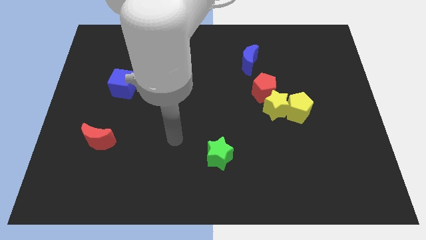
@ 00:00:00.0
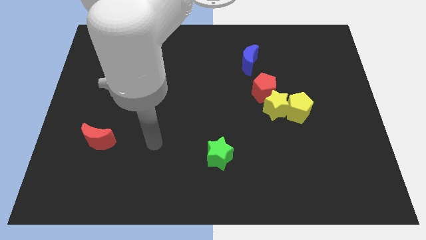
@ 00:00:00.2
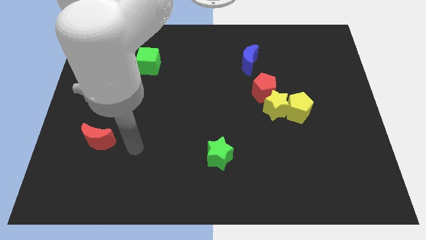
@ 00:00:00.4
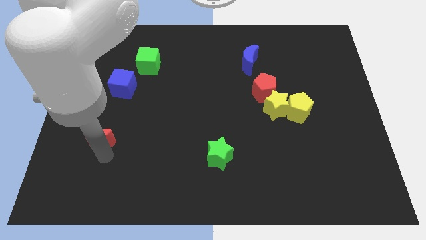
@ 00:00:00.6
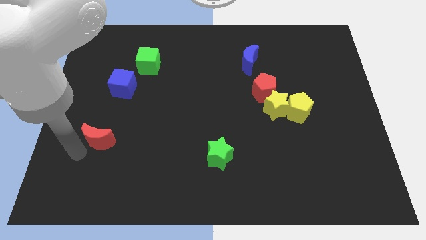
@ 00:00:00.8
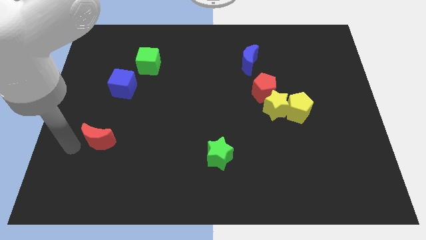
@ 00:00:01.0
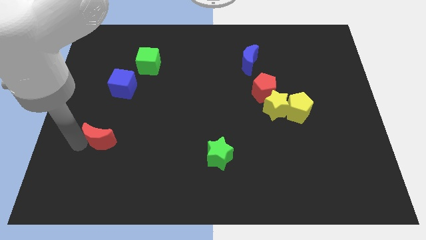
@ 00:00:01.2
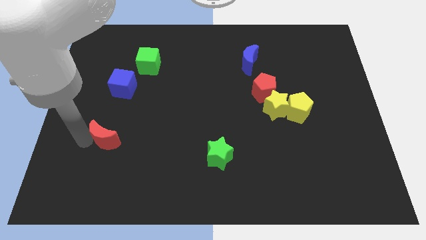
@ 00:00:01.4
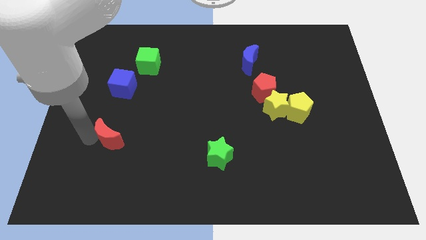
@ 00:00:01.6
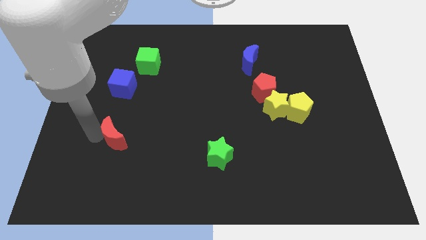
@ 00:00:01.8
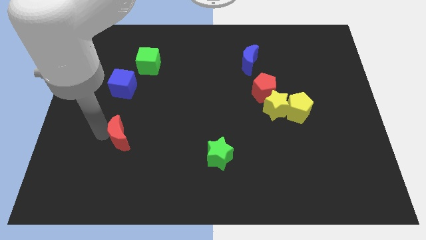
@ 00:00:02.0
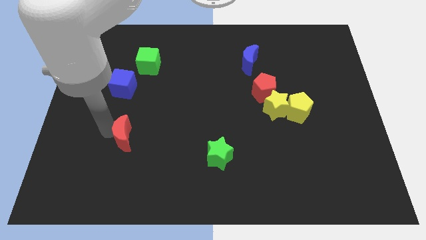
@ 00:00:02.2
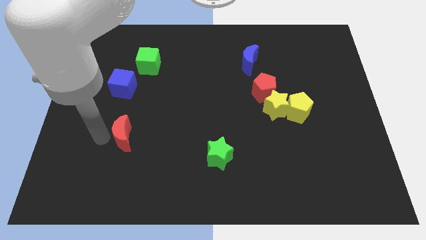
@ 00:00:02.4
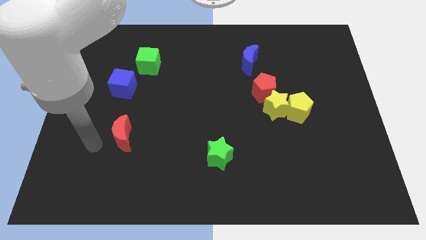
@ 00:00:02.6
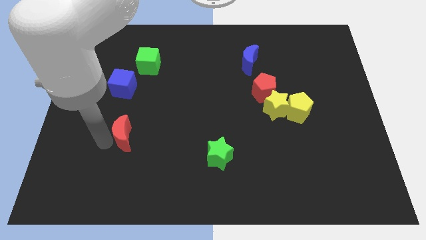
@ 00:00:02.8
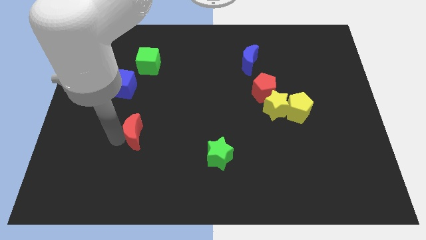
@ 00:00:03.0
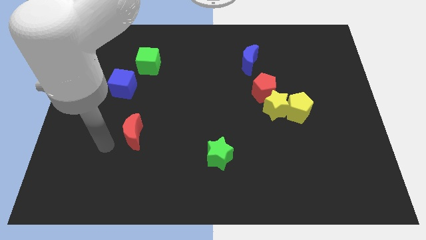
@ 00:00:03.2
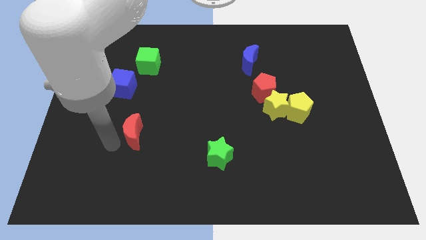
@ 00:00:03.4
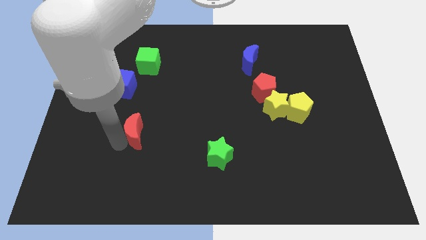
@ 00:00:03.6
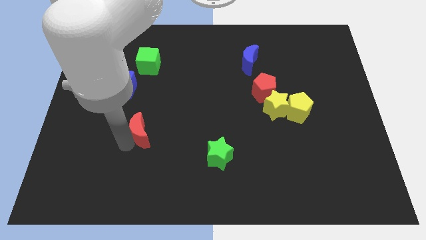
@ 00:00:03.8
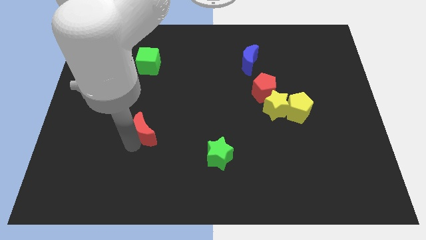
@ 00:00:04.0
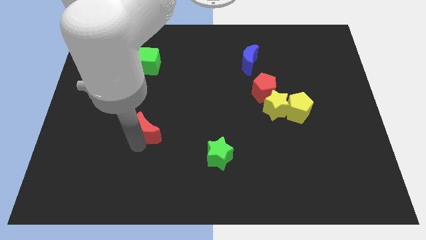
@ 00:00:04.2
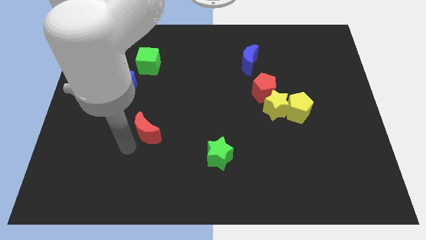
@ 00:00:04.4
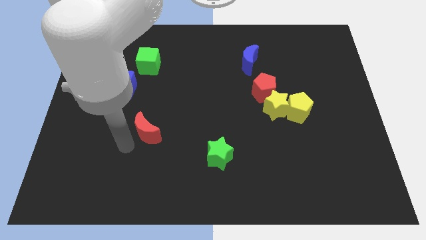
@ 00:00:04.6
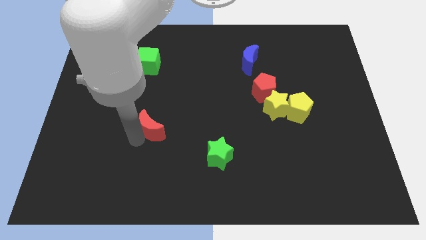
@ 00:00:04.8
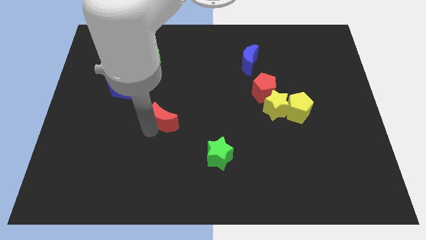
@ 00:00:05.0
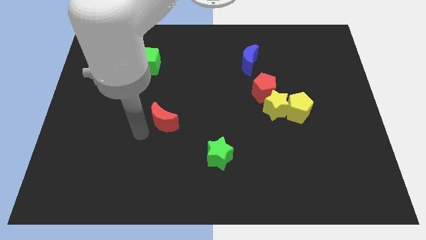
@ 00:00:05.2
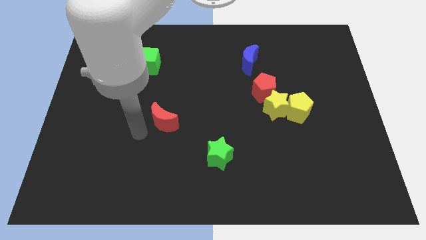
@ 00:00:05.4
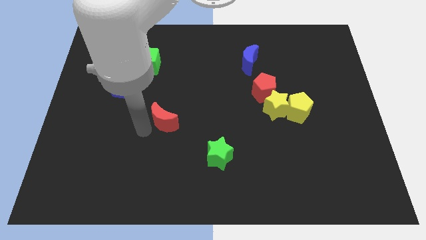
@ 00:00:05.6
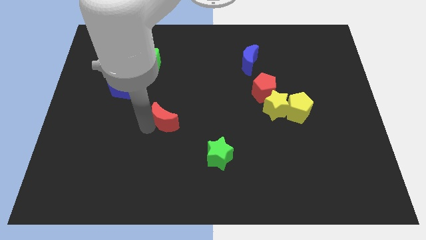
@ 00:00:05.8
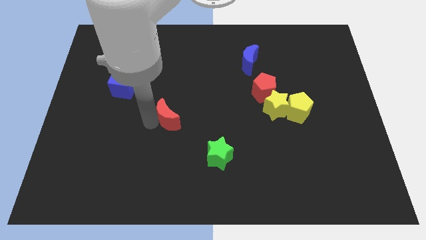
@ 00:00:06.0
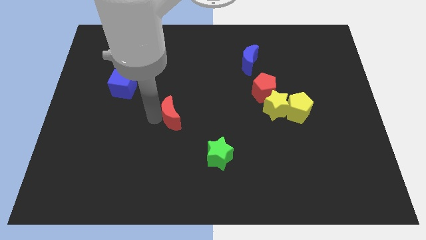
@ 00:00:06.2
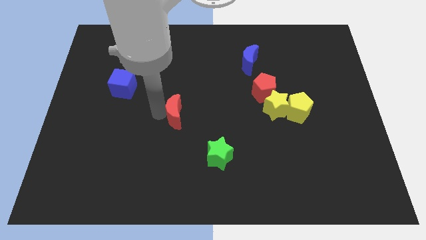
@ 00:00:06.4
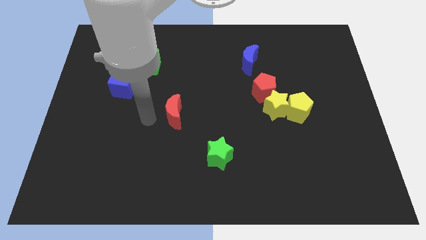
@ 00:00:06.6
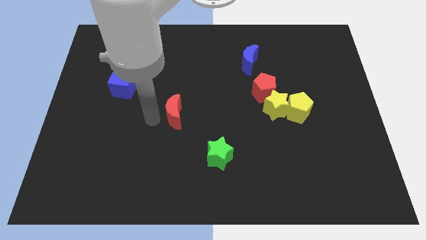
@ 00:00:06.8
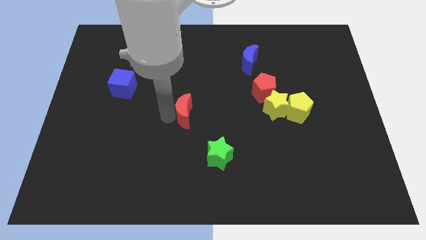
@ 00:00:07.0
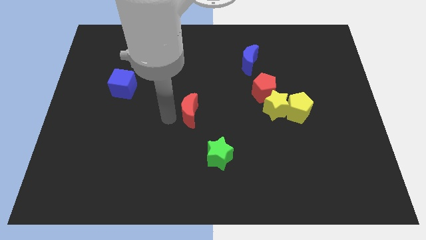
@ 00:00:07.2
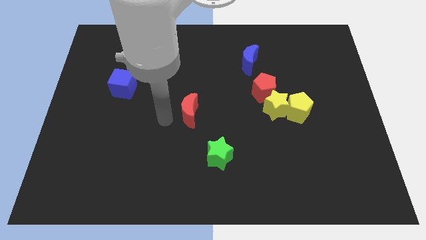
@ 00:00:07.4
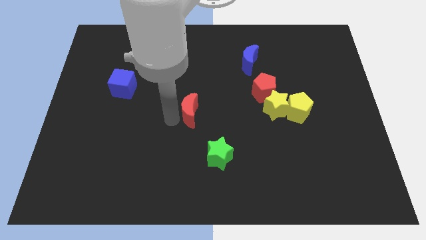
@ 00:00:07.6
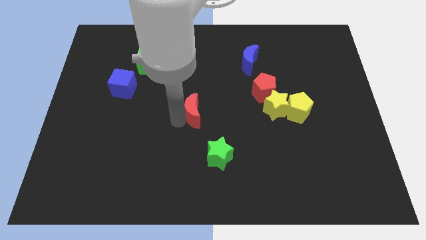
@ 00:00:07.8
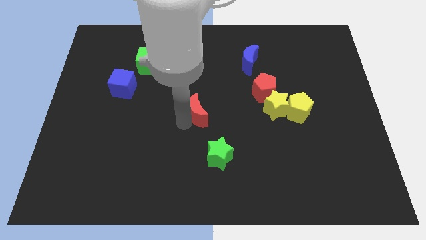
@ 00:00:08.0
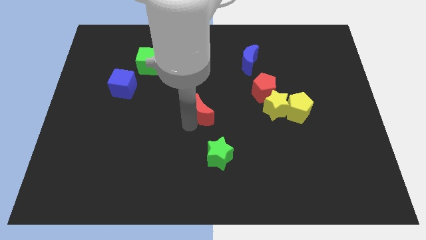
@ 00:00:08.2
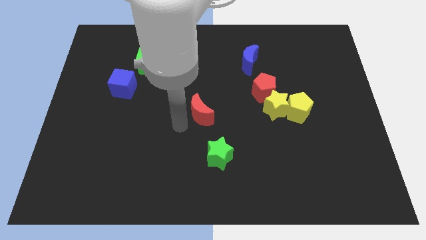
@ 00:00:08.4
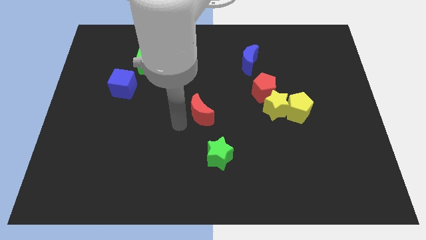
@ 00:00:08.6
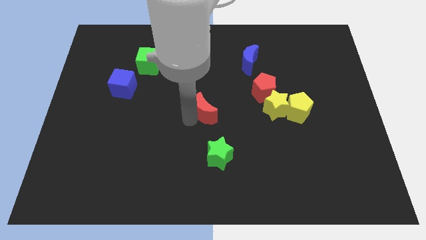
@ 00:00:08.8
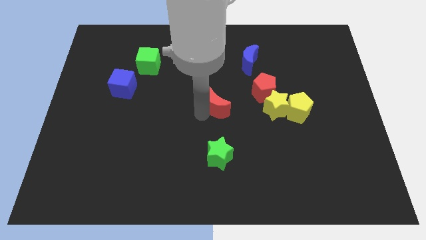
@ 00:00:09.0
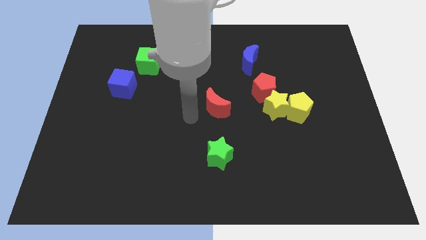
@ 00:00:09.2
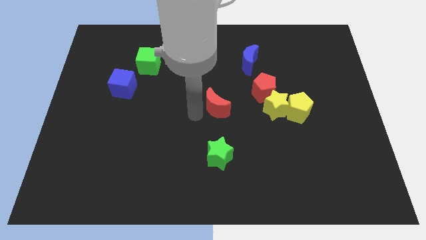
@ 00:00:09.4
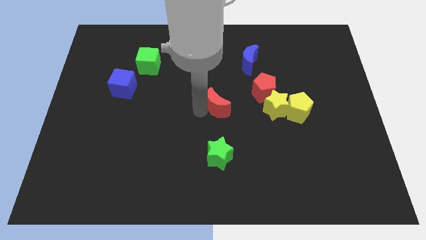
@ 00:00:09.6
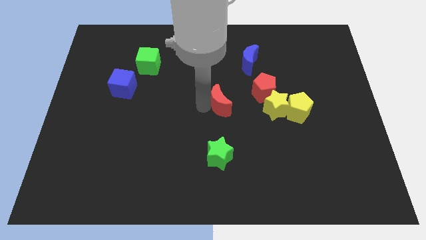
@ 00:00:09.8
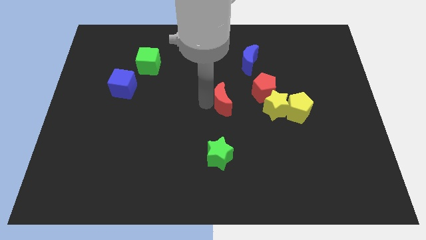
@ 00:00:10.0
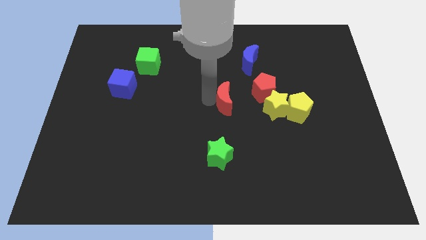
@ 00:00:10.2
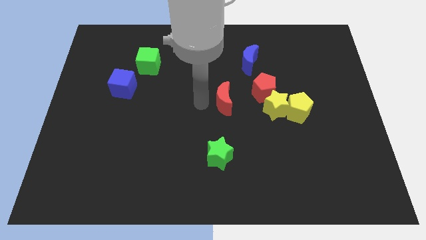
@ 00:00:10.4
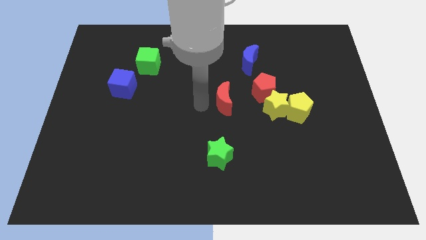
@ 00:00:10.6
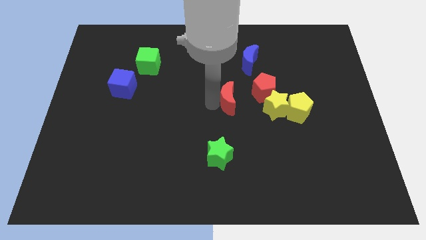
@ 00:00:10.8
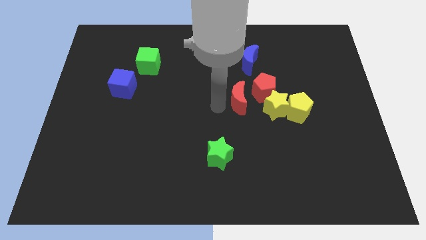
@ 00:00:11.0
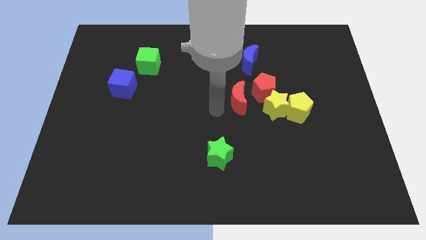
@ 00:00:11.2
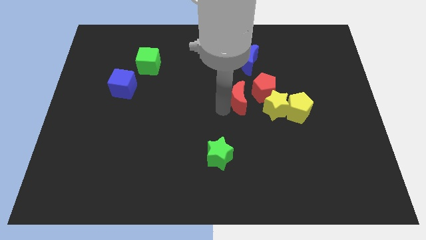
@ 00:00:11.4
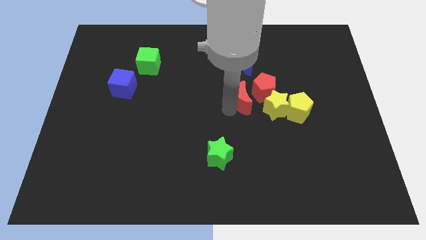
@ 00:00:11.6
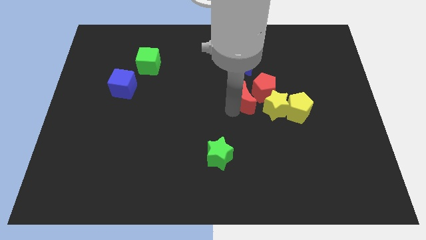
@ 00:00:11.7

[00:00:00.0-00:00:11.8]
move the red moon next to the red pentagon
